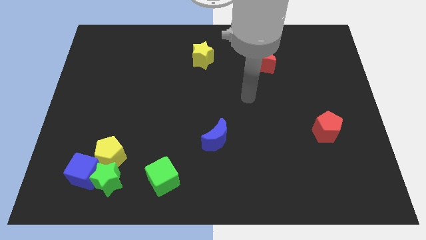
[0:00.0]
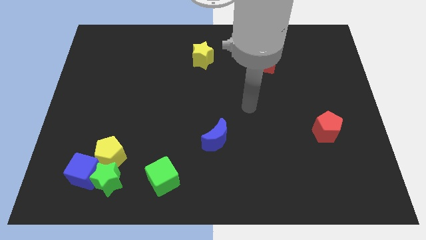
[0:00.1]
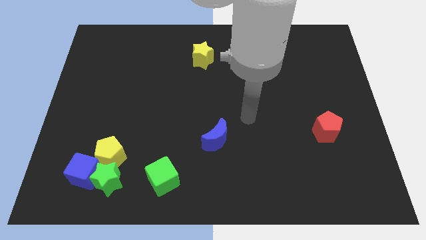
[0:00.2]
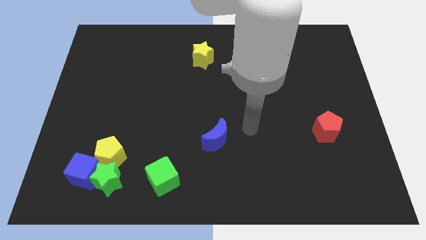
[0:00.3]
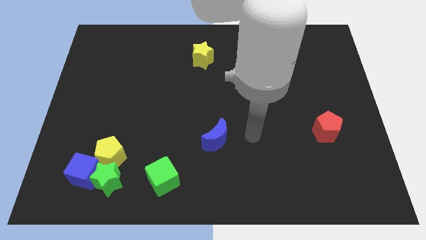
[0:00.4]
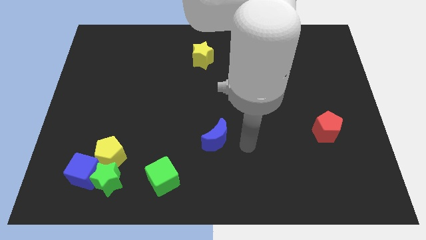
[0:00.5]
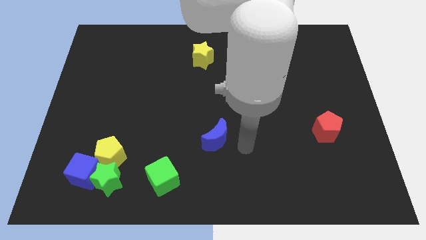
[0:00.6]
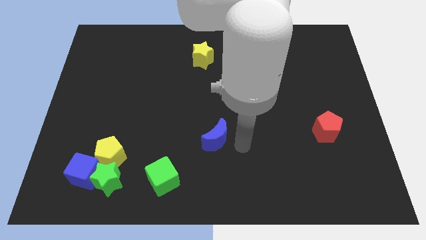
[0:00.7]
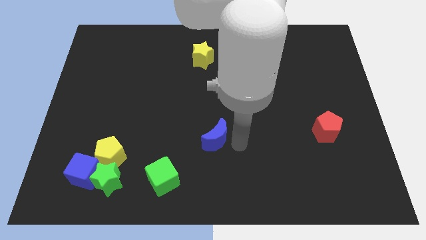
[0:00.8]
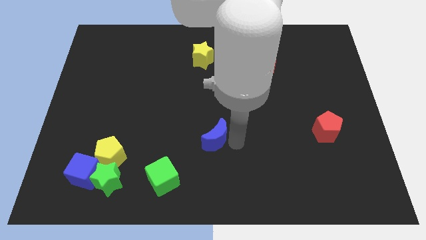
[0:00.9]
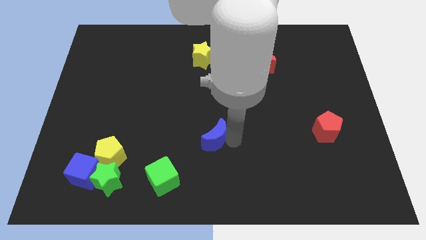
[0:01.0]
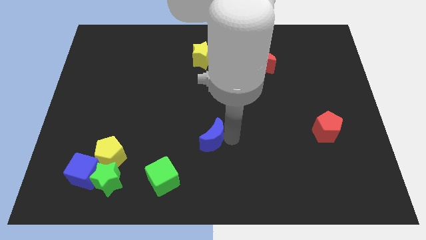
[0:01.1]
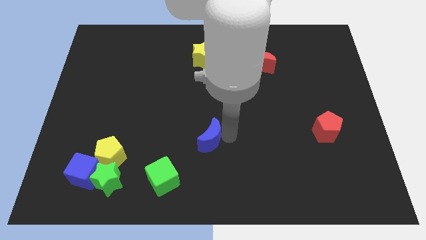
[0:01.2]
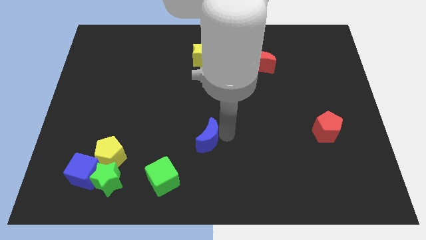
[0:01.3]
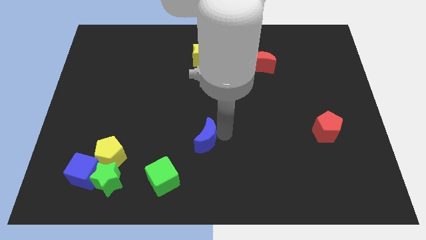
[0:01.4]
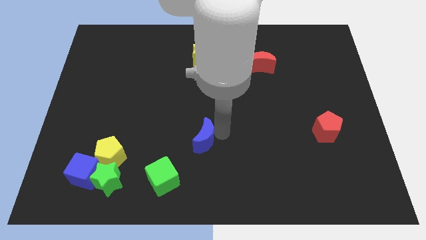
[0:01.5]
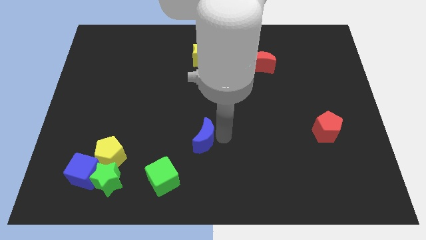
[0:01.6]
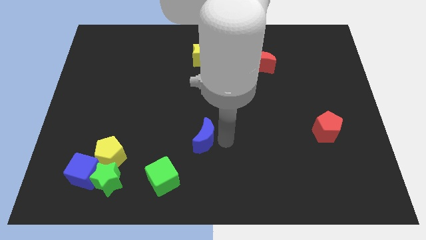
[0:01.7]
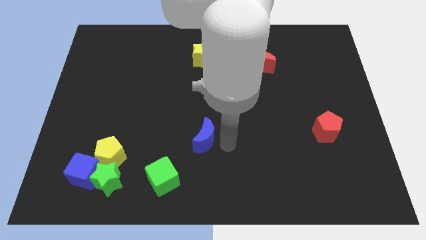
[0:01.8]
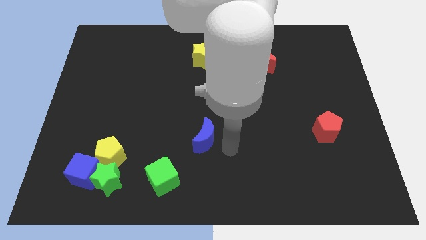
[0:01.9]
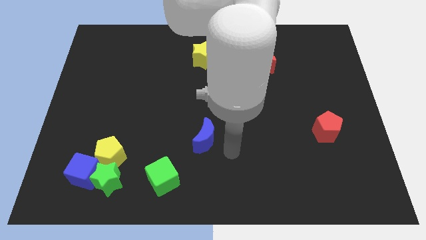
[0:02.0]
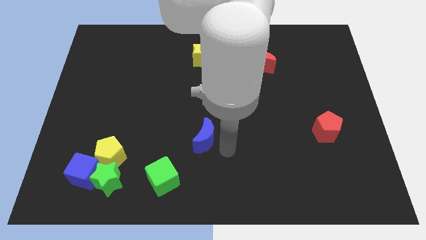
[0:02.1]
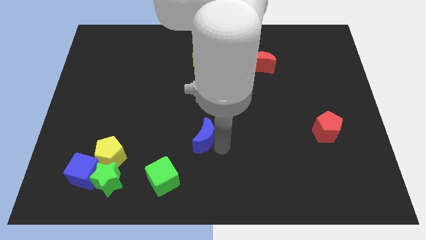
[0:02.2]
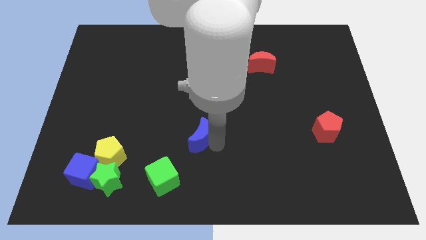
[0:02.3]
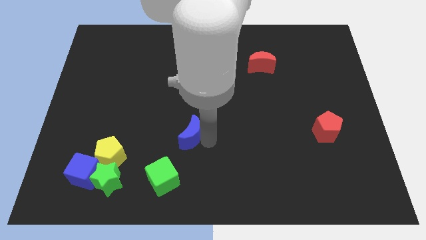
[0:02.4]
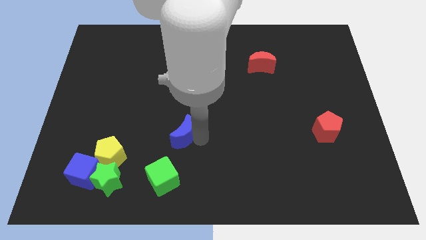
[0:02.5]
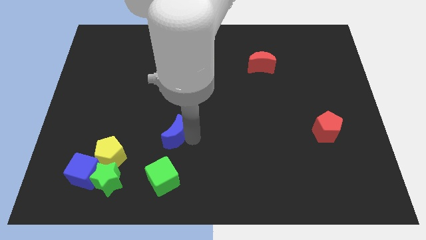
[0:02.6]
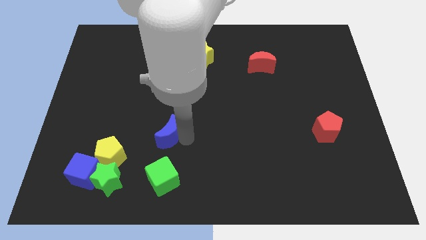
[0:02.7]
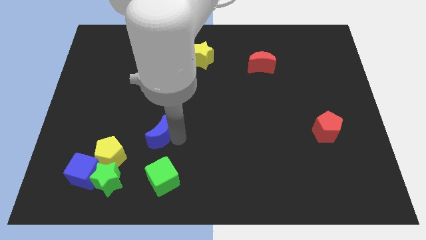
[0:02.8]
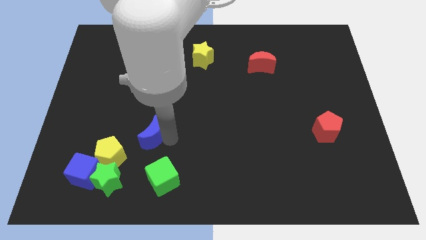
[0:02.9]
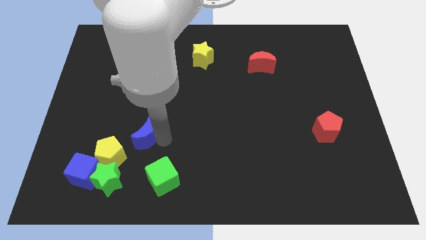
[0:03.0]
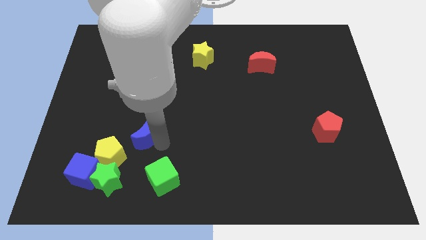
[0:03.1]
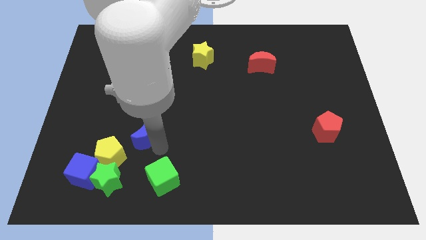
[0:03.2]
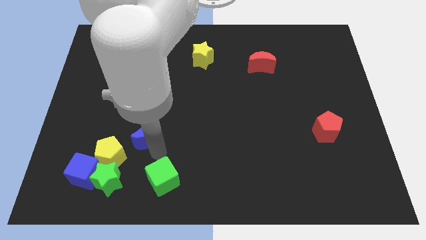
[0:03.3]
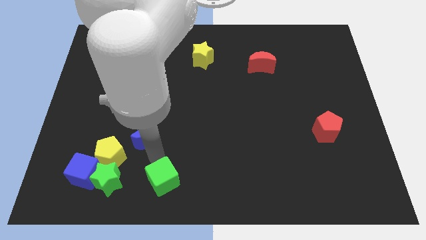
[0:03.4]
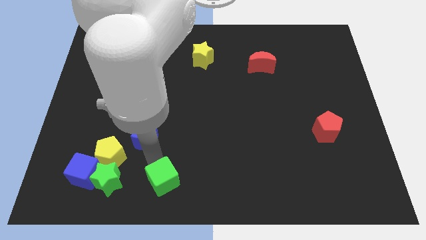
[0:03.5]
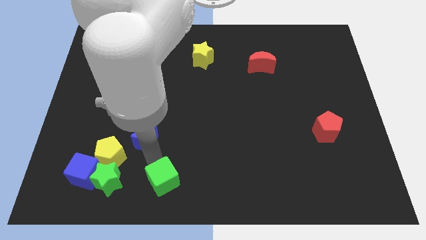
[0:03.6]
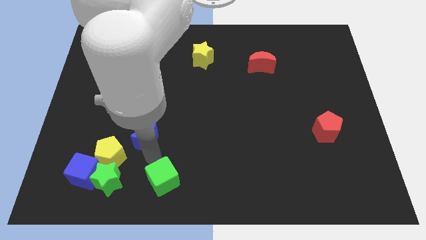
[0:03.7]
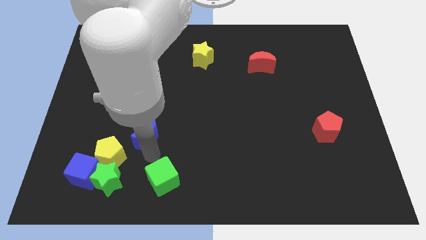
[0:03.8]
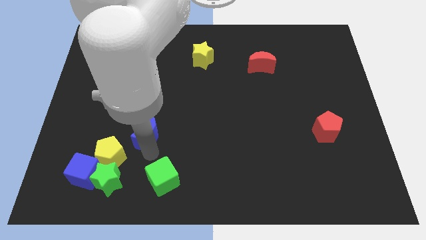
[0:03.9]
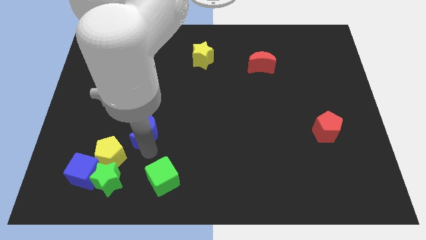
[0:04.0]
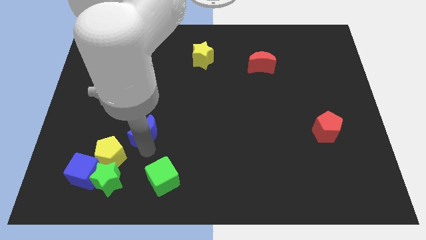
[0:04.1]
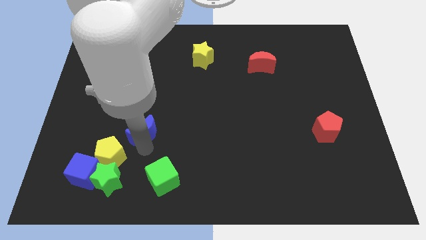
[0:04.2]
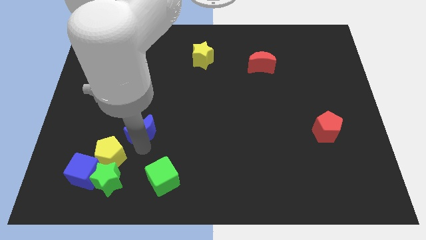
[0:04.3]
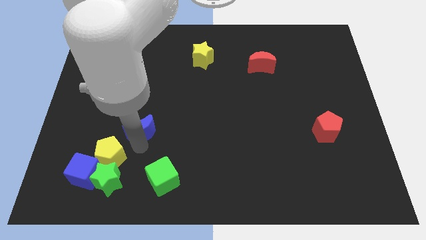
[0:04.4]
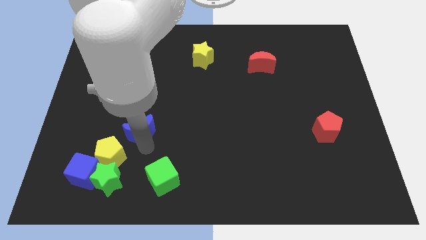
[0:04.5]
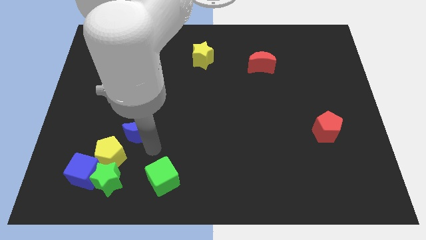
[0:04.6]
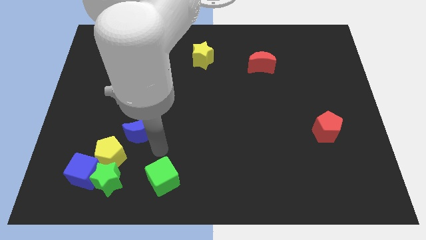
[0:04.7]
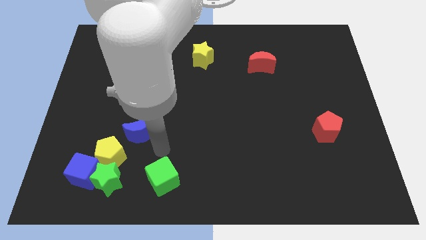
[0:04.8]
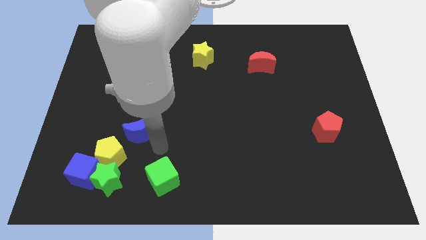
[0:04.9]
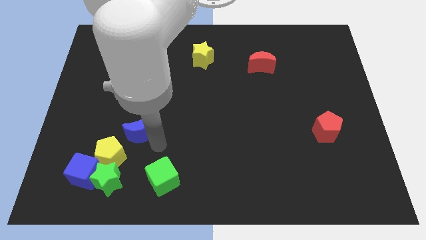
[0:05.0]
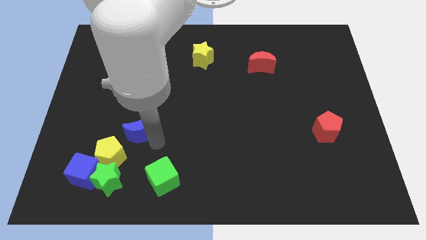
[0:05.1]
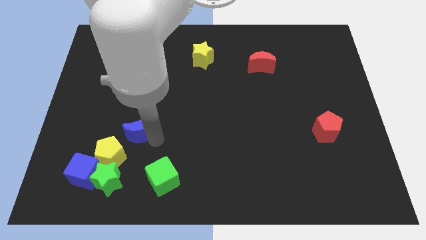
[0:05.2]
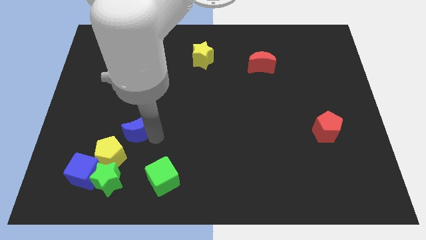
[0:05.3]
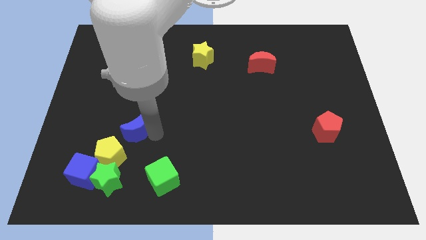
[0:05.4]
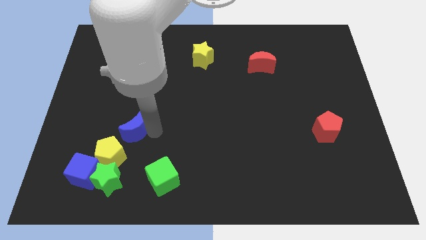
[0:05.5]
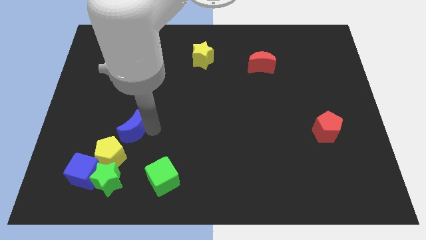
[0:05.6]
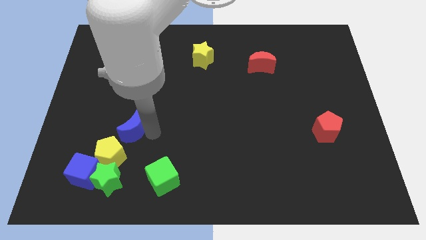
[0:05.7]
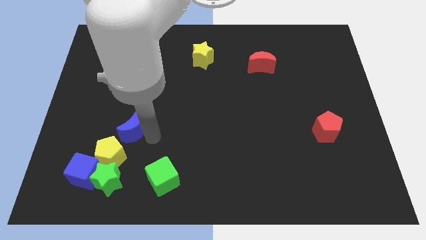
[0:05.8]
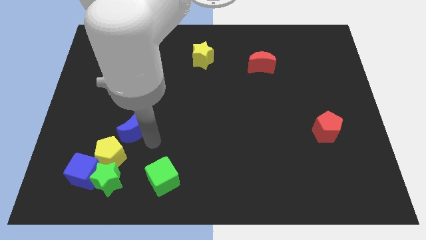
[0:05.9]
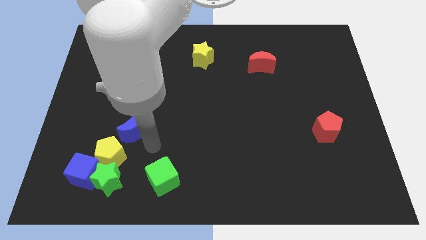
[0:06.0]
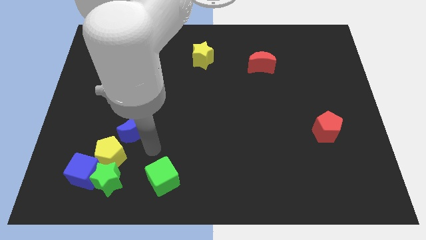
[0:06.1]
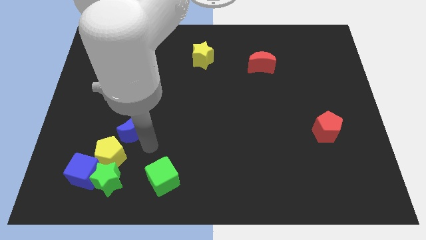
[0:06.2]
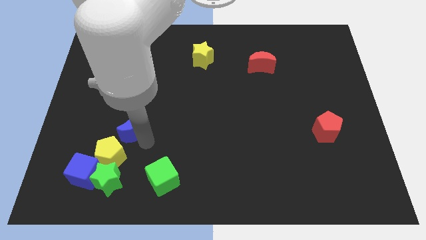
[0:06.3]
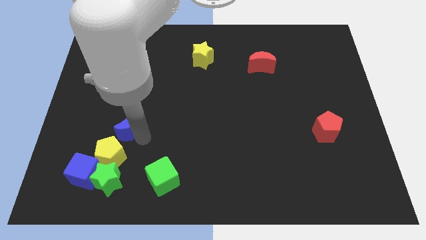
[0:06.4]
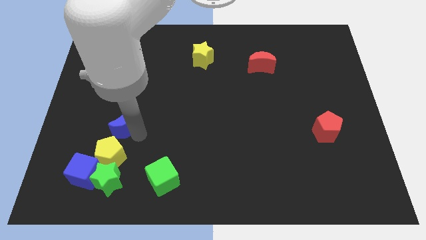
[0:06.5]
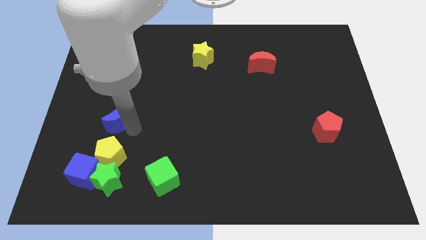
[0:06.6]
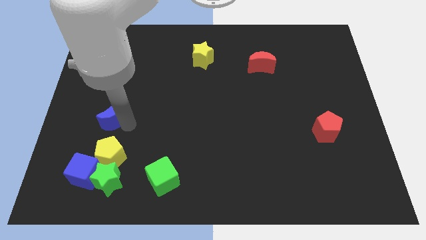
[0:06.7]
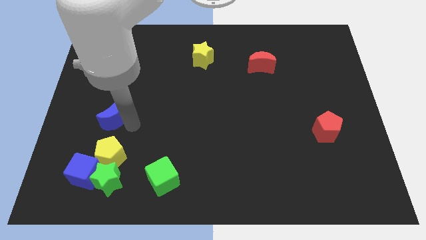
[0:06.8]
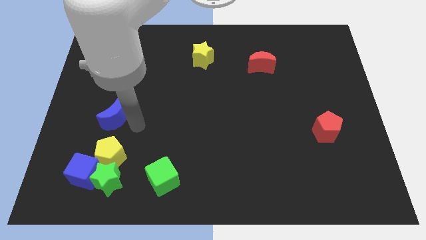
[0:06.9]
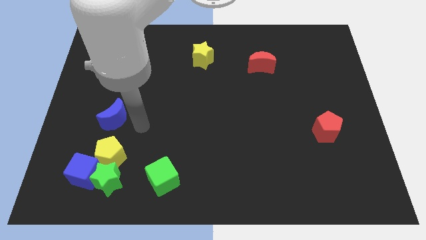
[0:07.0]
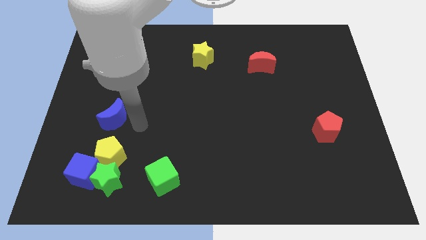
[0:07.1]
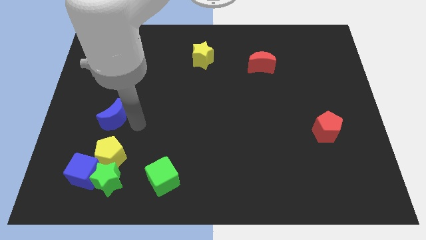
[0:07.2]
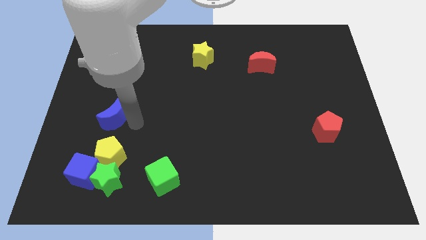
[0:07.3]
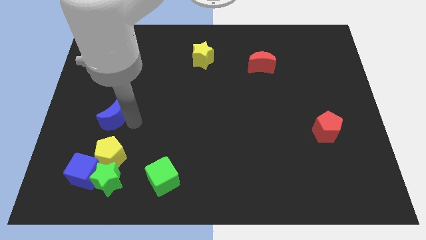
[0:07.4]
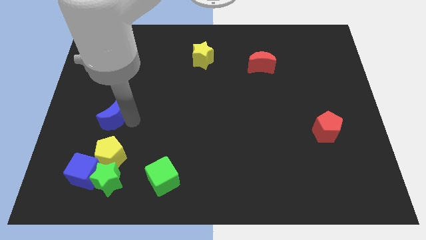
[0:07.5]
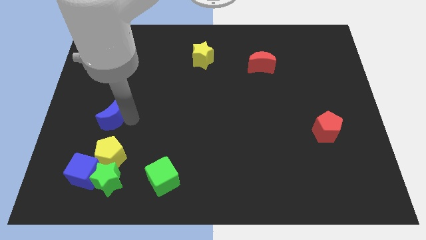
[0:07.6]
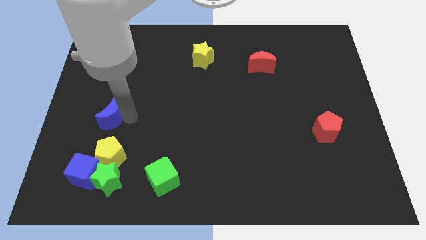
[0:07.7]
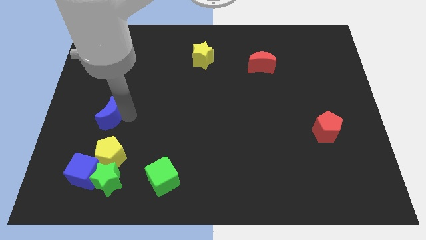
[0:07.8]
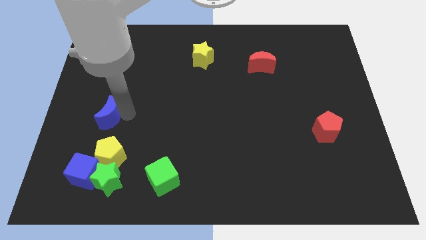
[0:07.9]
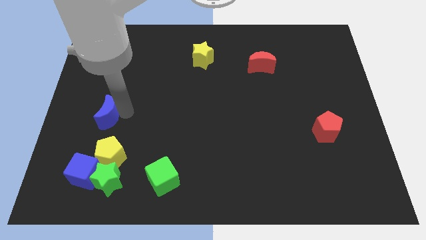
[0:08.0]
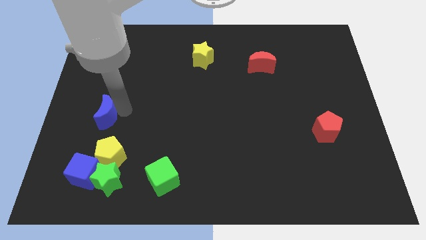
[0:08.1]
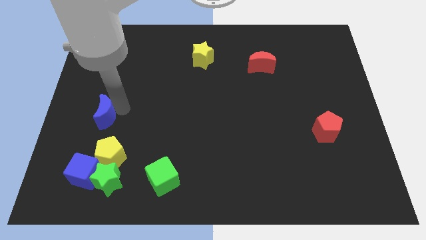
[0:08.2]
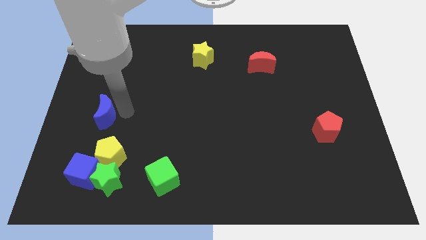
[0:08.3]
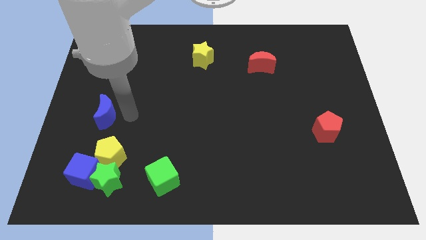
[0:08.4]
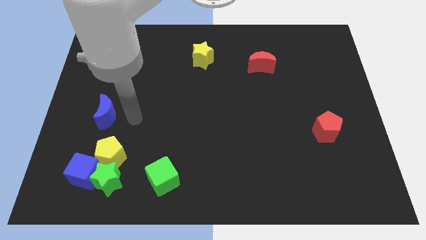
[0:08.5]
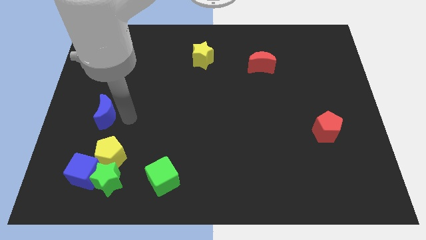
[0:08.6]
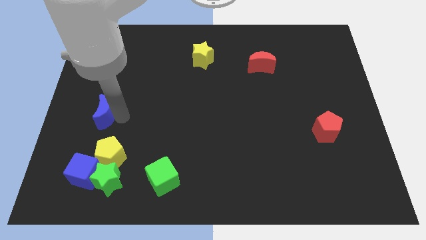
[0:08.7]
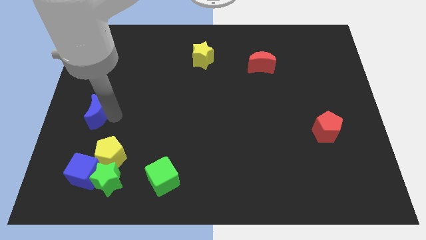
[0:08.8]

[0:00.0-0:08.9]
slide the blue moon to the center left
